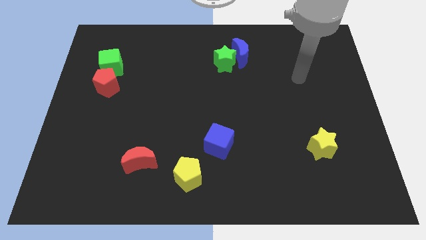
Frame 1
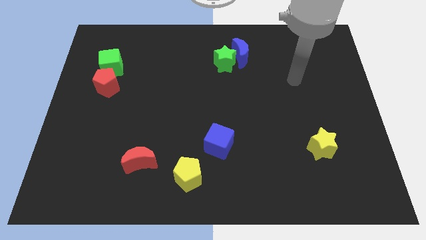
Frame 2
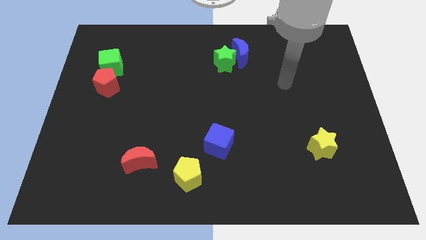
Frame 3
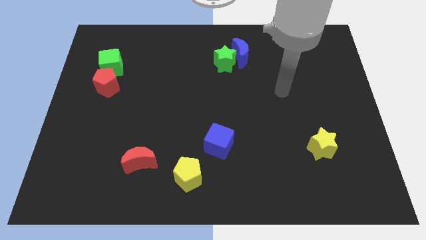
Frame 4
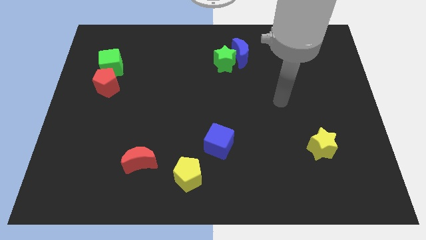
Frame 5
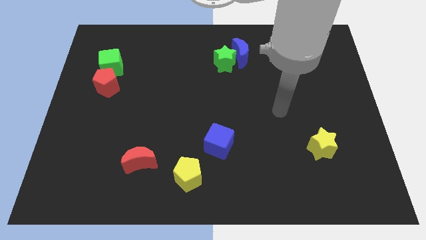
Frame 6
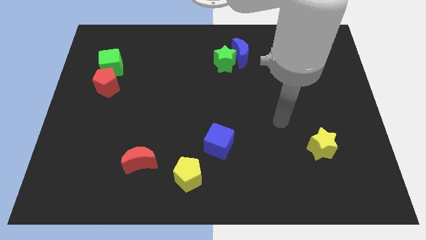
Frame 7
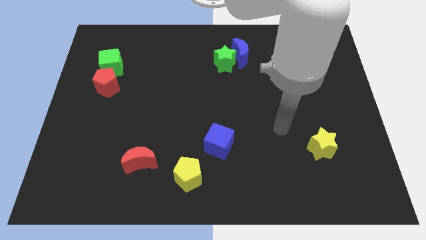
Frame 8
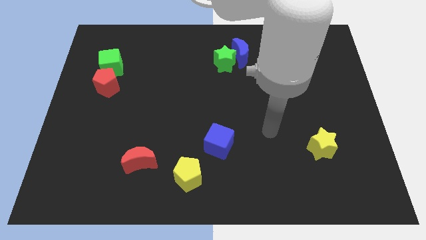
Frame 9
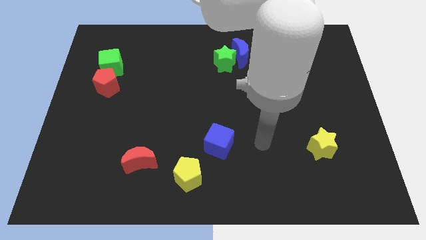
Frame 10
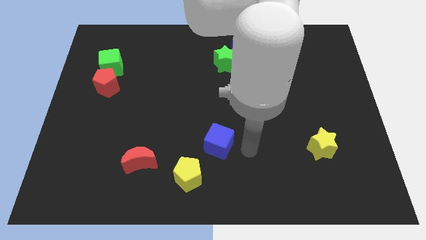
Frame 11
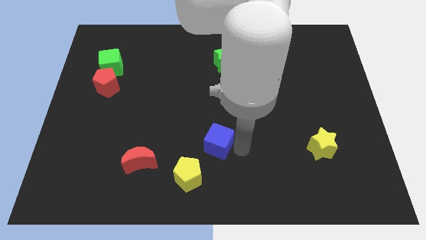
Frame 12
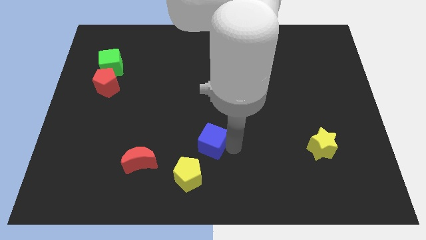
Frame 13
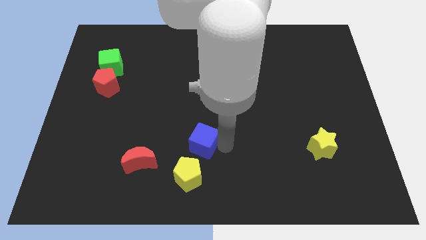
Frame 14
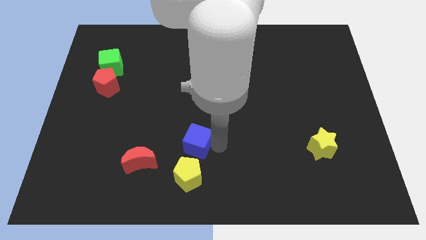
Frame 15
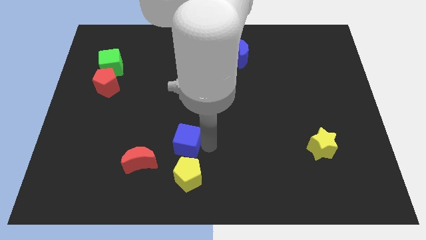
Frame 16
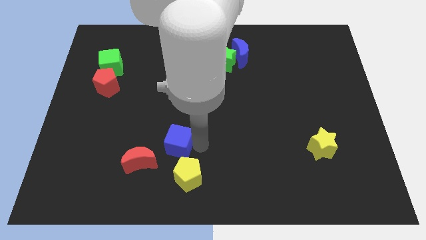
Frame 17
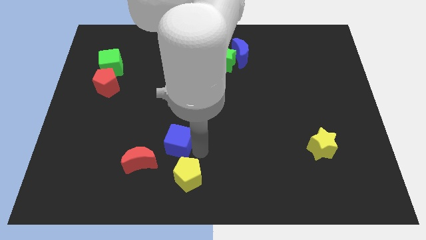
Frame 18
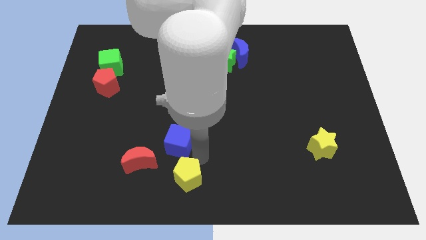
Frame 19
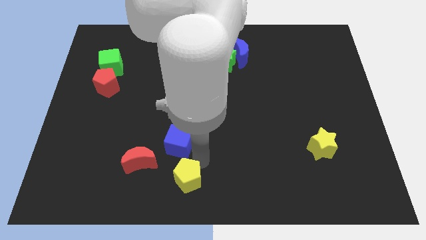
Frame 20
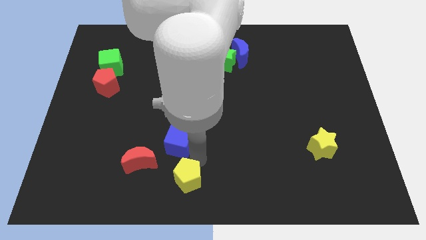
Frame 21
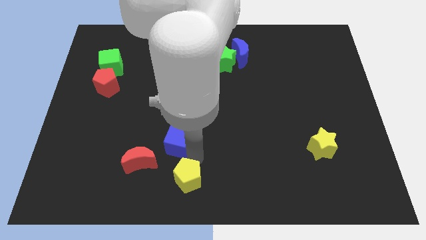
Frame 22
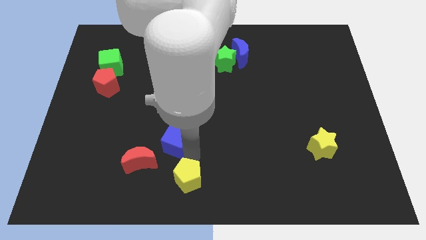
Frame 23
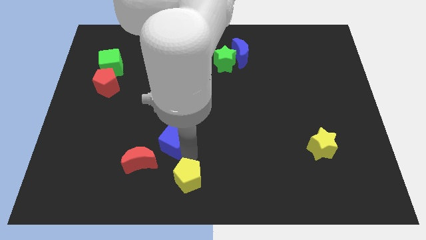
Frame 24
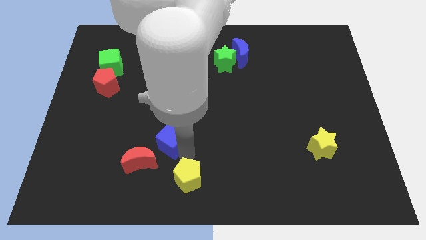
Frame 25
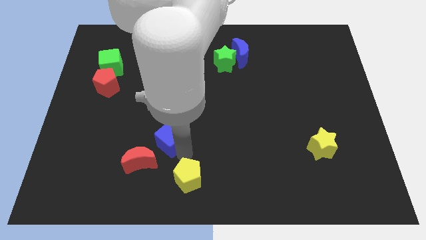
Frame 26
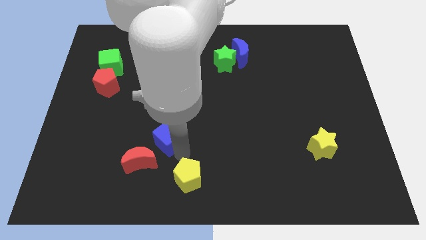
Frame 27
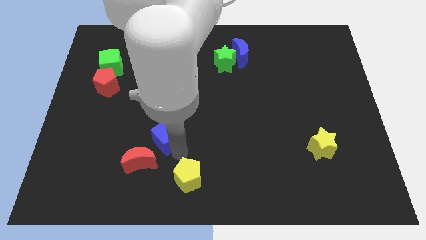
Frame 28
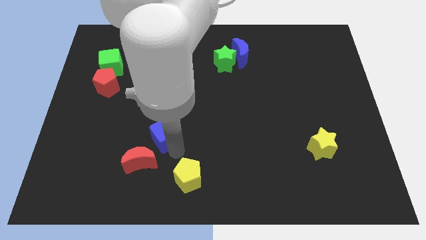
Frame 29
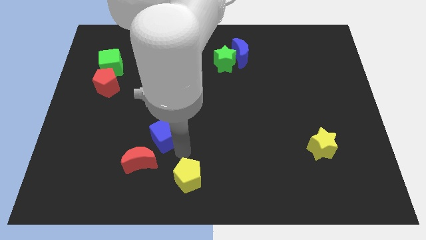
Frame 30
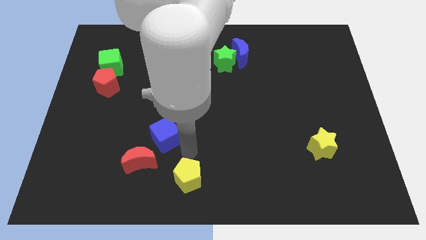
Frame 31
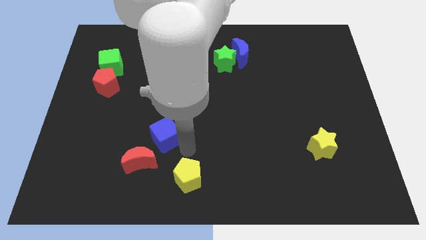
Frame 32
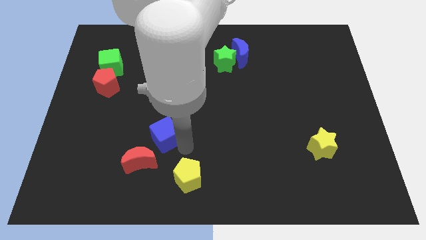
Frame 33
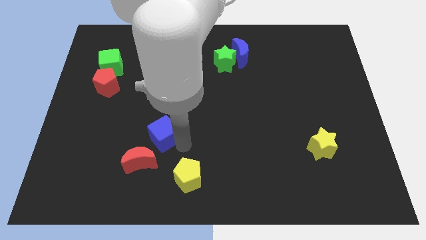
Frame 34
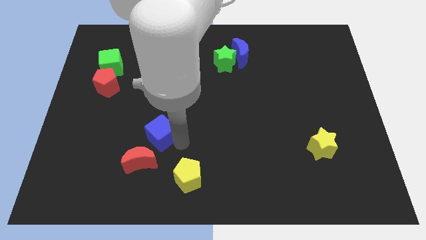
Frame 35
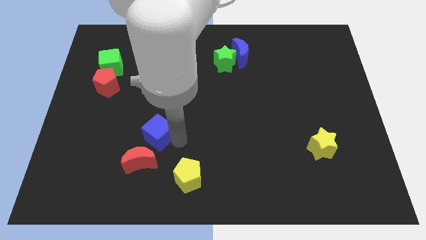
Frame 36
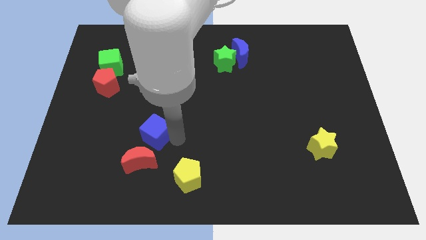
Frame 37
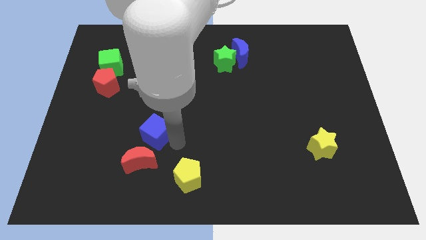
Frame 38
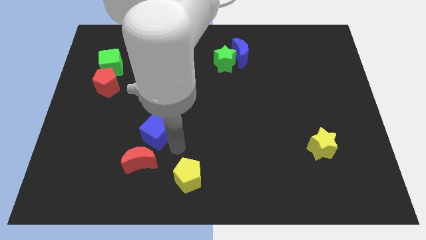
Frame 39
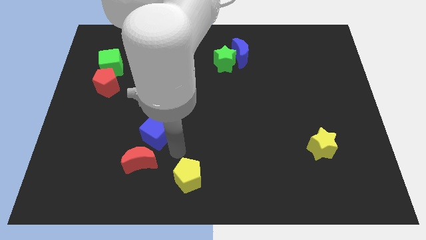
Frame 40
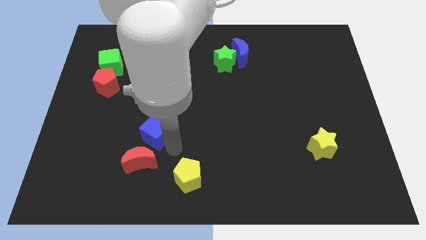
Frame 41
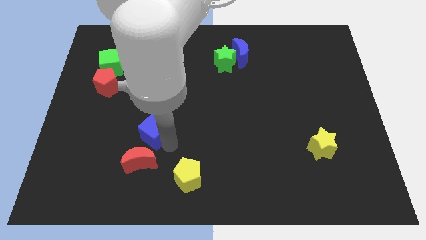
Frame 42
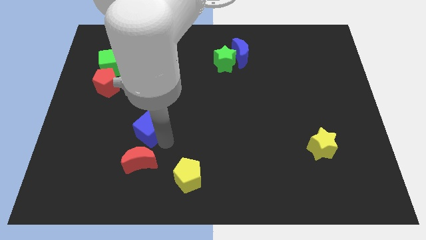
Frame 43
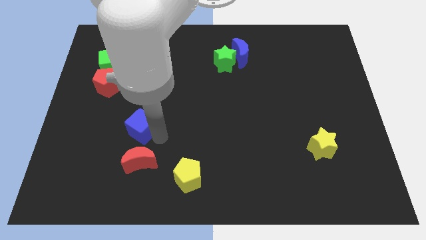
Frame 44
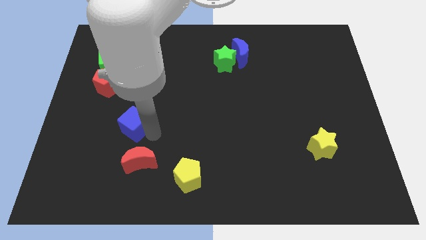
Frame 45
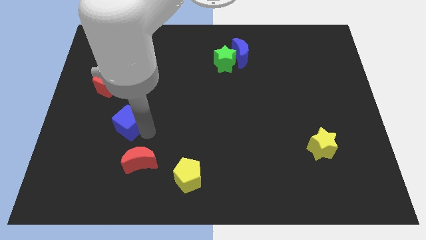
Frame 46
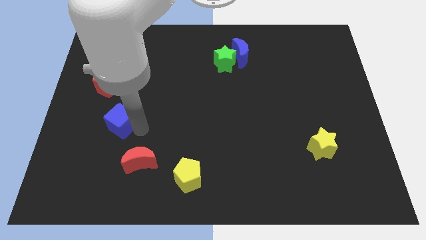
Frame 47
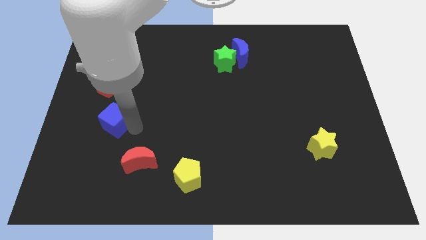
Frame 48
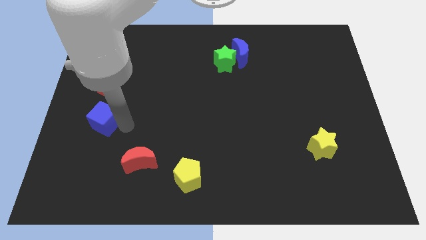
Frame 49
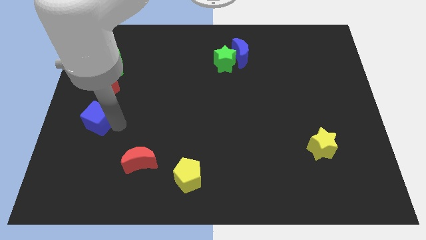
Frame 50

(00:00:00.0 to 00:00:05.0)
move the blue cube to the center left

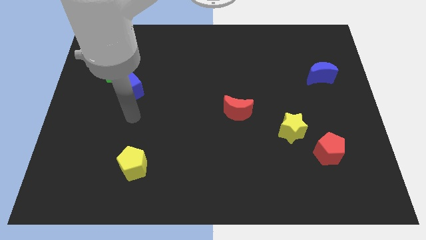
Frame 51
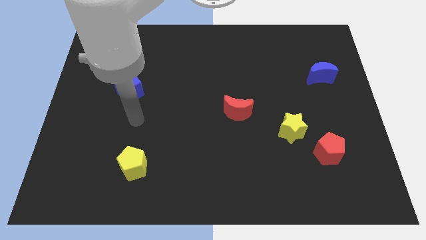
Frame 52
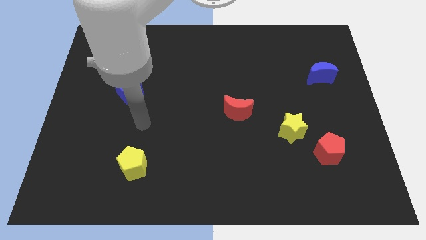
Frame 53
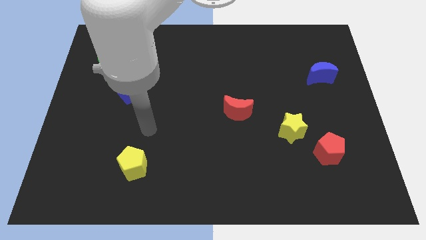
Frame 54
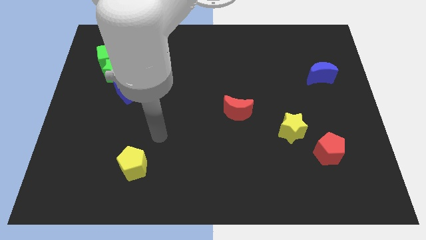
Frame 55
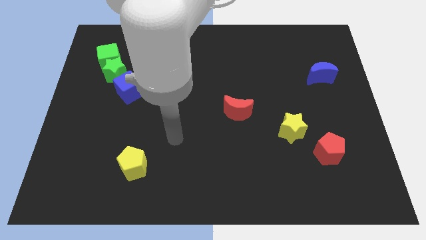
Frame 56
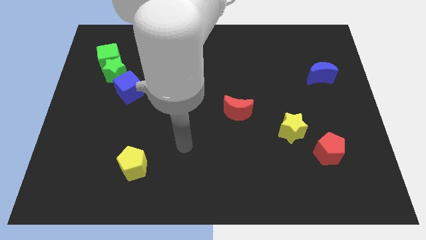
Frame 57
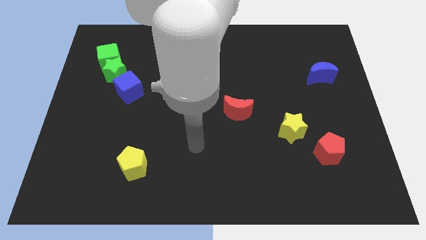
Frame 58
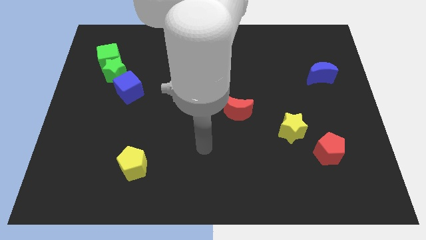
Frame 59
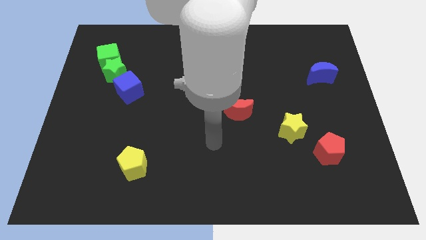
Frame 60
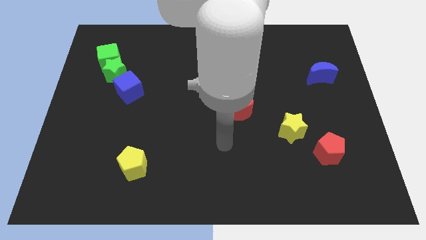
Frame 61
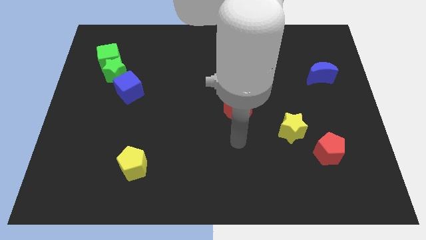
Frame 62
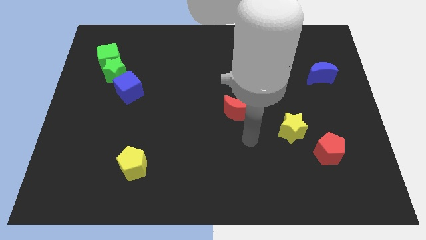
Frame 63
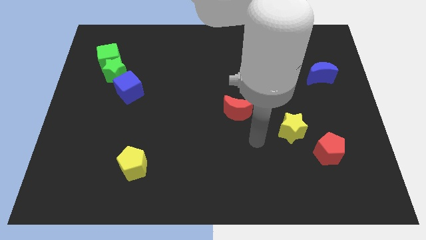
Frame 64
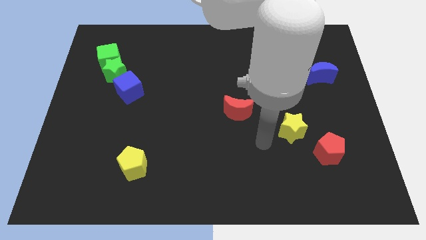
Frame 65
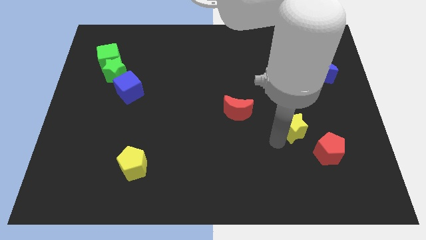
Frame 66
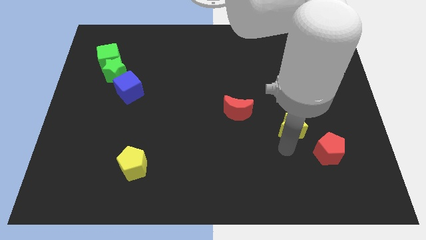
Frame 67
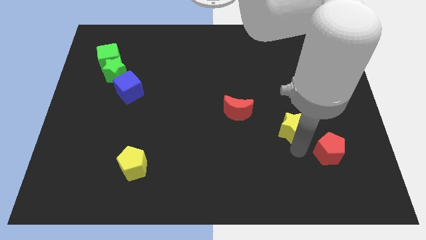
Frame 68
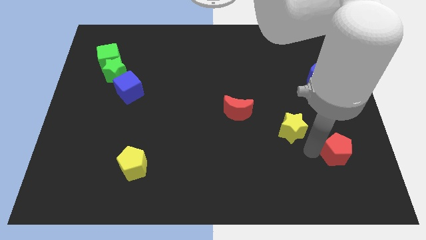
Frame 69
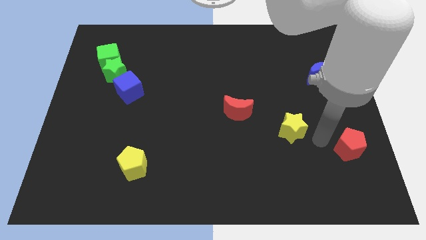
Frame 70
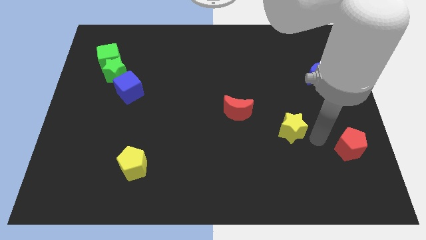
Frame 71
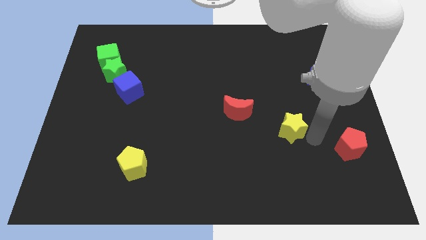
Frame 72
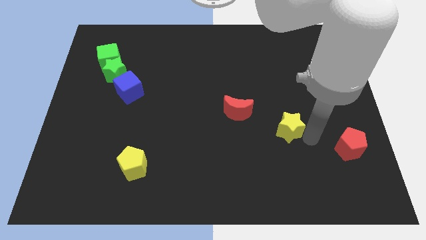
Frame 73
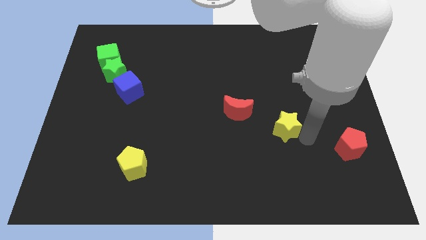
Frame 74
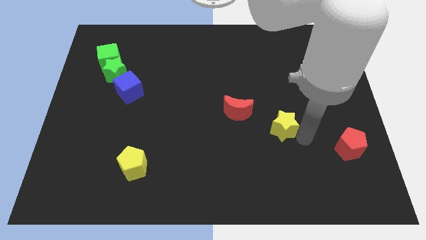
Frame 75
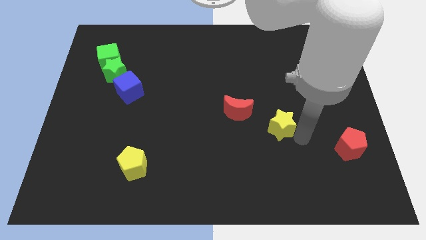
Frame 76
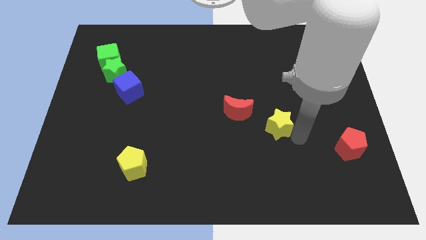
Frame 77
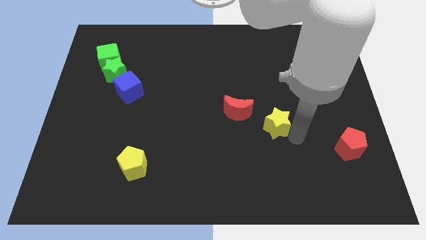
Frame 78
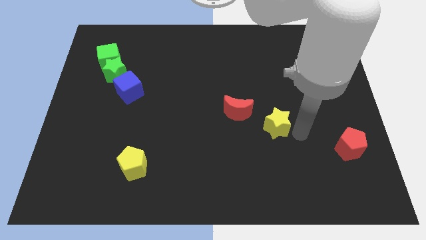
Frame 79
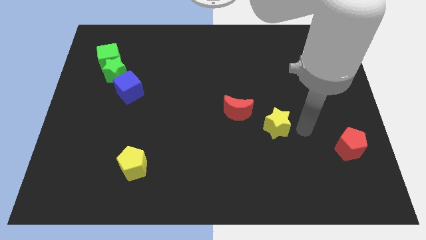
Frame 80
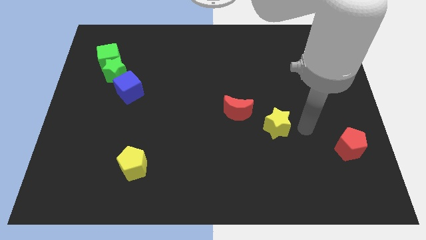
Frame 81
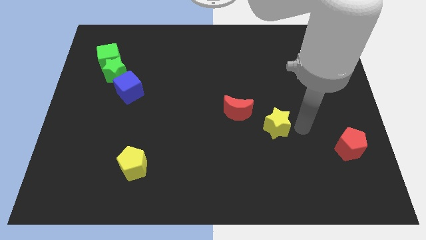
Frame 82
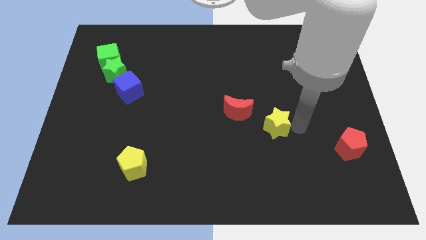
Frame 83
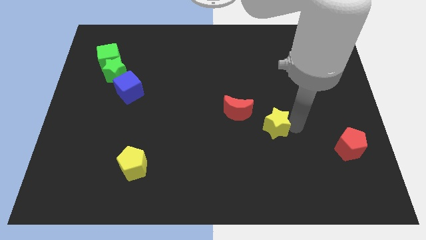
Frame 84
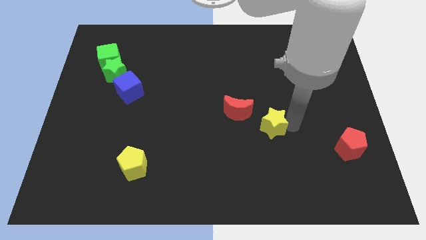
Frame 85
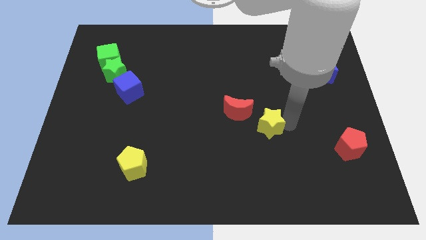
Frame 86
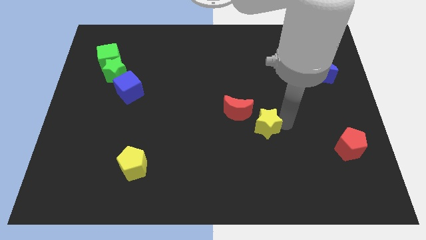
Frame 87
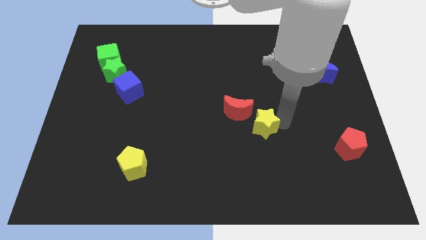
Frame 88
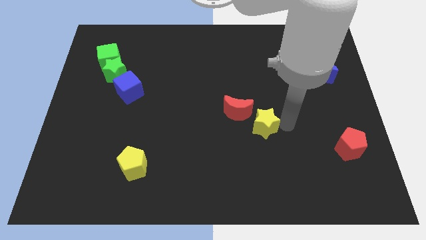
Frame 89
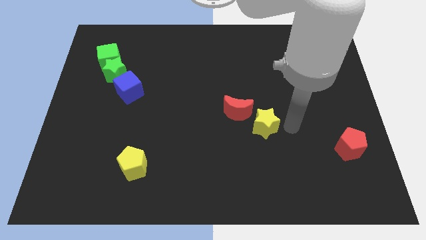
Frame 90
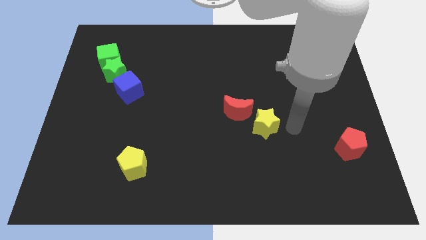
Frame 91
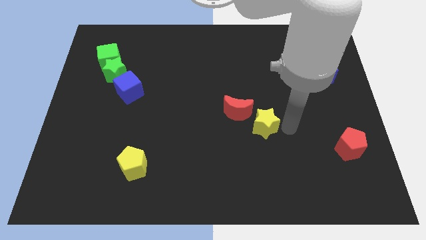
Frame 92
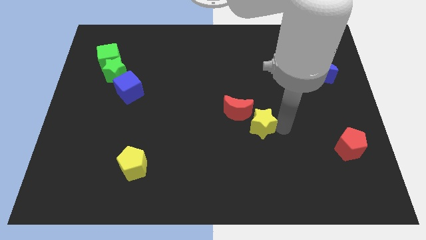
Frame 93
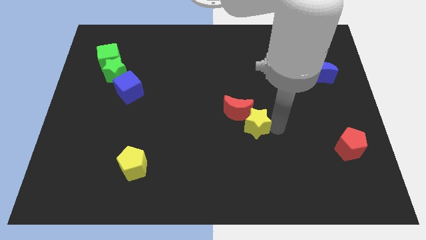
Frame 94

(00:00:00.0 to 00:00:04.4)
push the yellow star to the center
